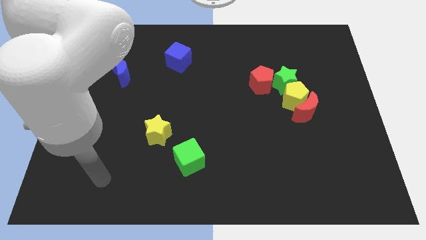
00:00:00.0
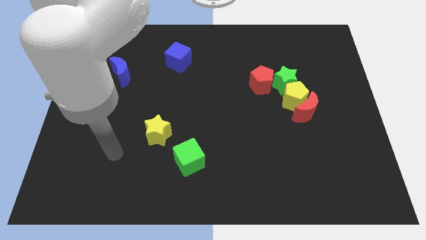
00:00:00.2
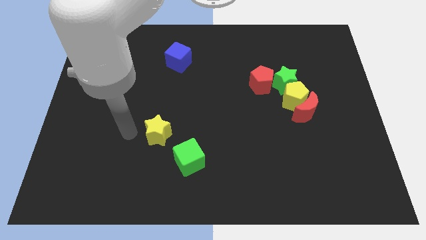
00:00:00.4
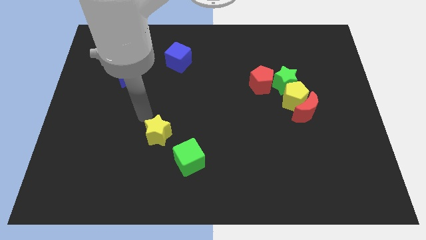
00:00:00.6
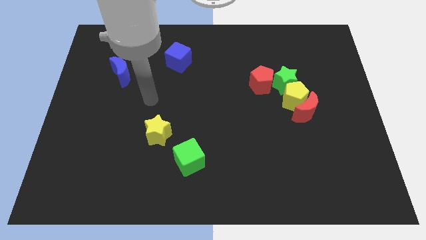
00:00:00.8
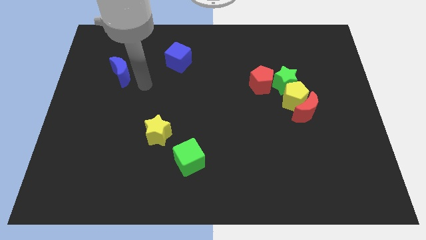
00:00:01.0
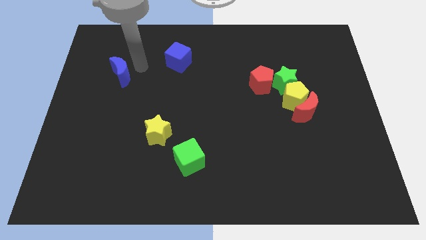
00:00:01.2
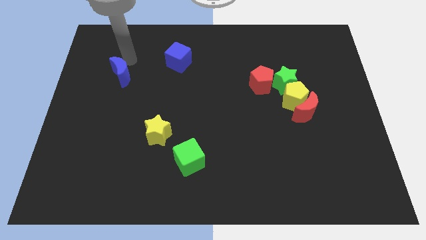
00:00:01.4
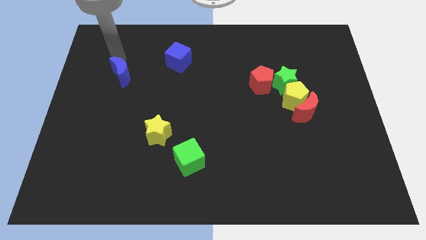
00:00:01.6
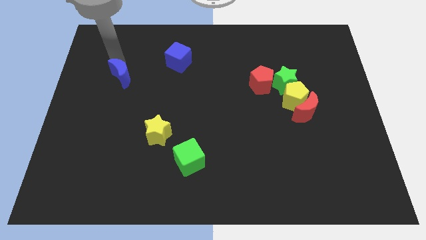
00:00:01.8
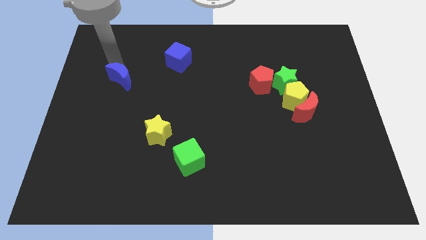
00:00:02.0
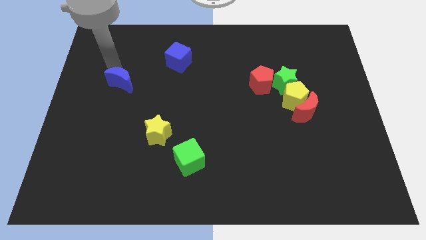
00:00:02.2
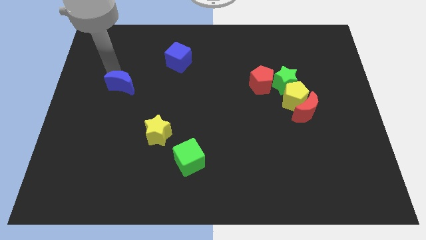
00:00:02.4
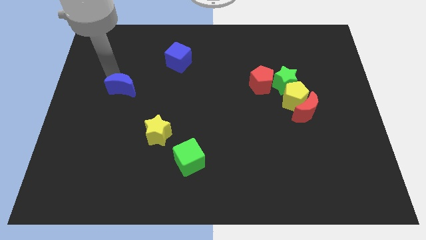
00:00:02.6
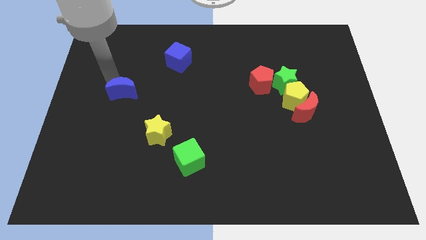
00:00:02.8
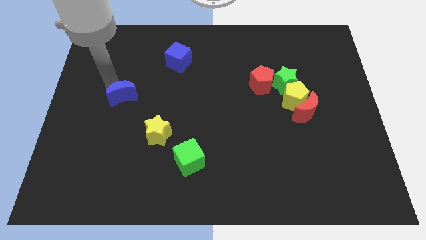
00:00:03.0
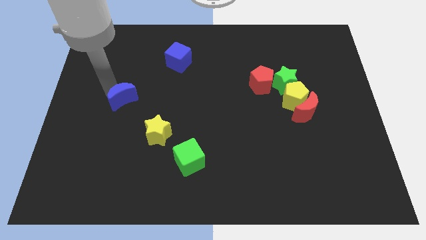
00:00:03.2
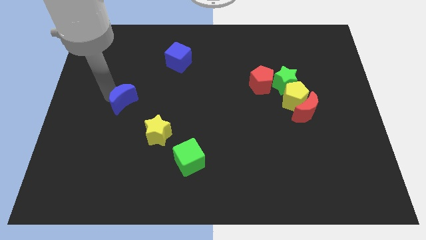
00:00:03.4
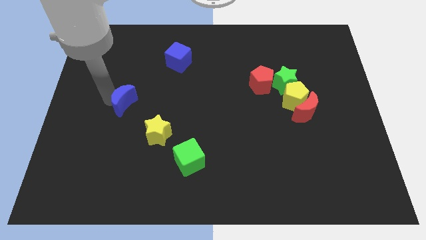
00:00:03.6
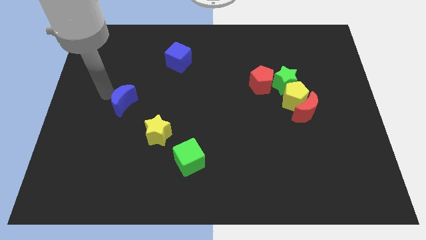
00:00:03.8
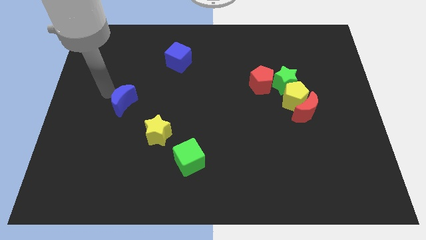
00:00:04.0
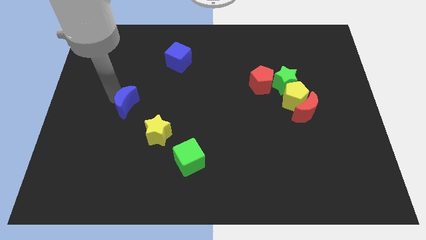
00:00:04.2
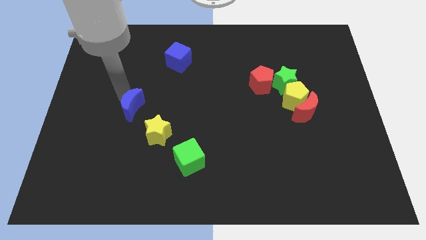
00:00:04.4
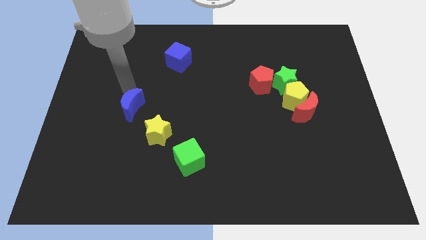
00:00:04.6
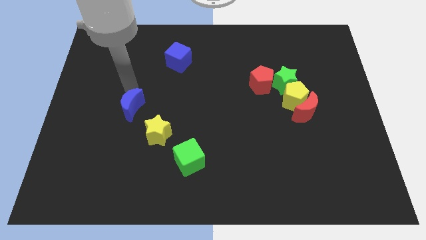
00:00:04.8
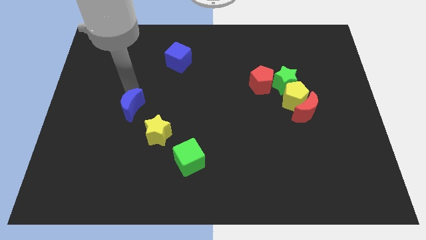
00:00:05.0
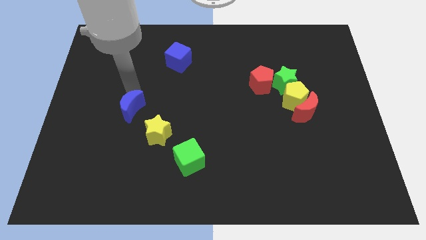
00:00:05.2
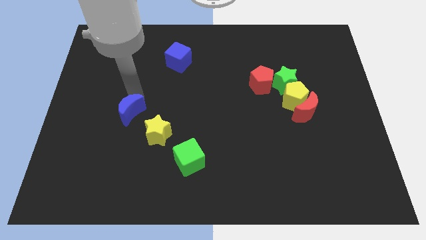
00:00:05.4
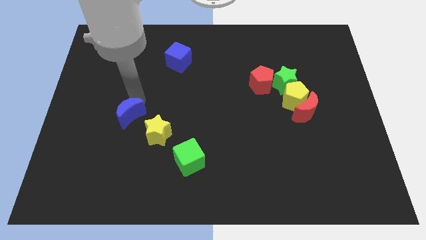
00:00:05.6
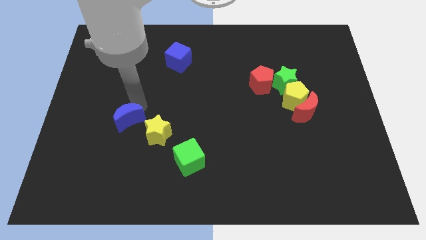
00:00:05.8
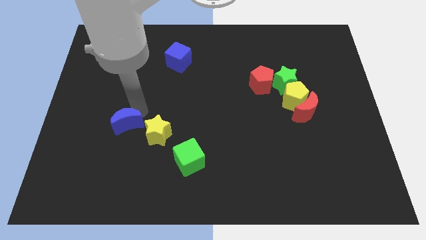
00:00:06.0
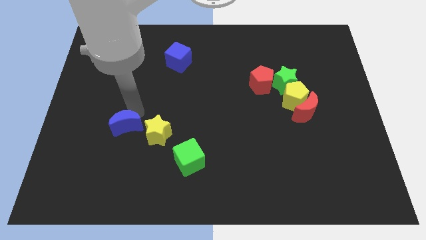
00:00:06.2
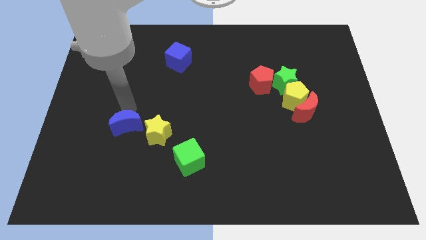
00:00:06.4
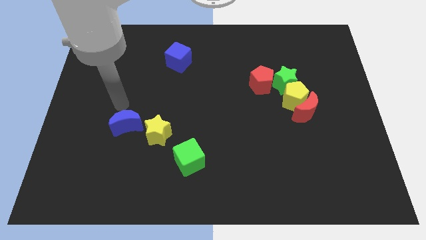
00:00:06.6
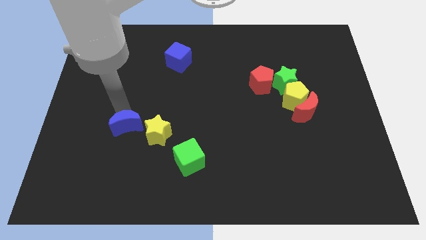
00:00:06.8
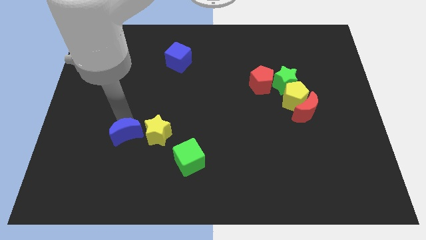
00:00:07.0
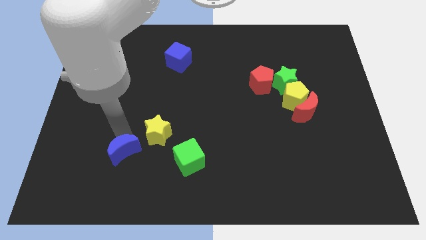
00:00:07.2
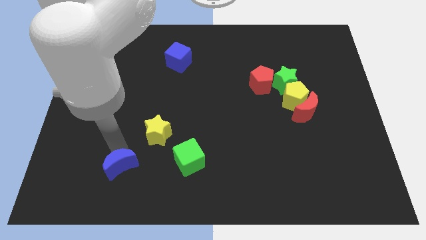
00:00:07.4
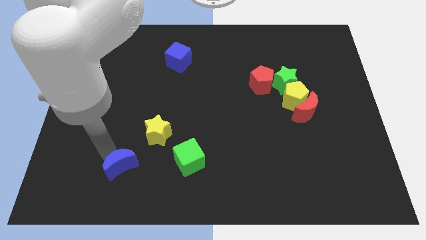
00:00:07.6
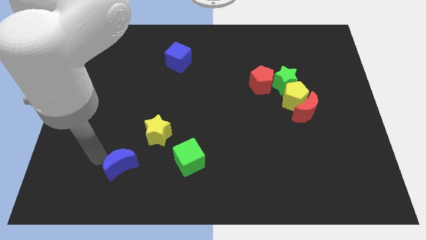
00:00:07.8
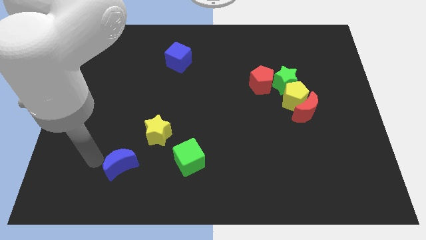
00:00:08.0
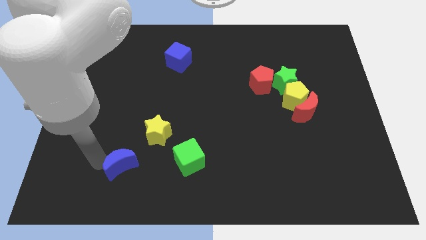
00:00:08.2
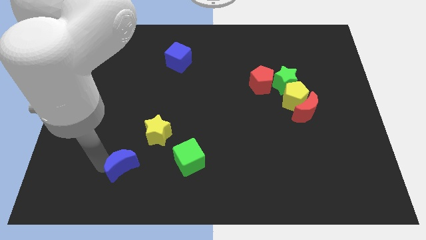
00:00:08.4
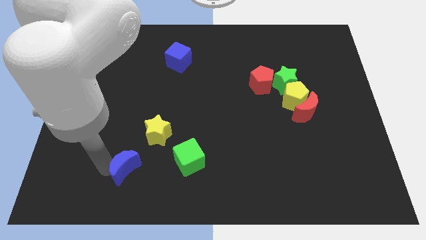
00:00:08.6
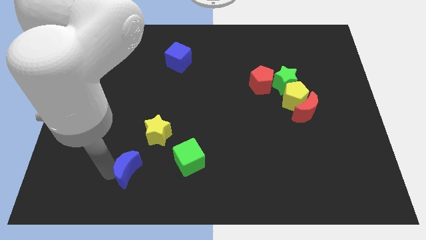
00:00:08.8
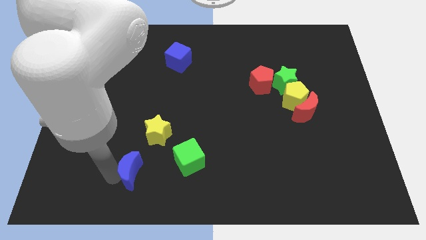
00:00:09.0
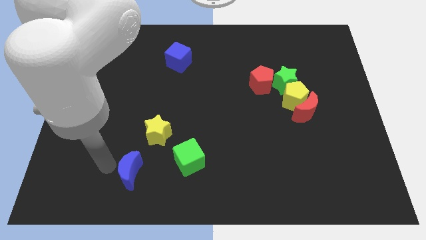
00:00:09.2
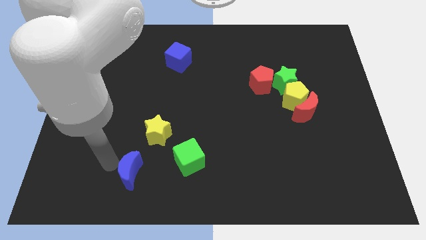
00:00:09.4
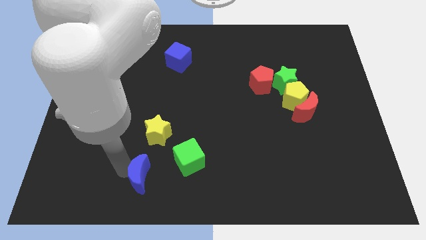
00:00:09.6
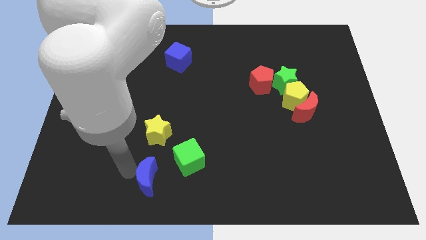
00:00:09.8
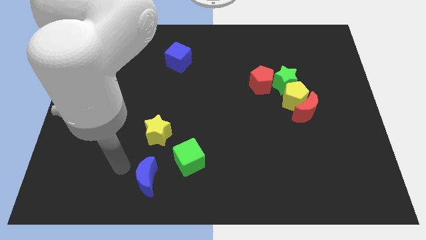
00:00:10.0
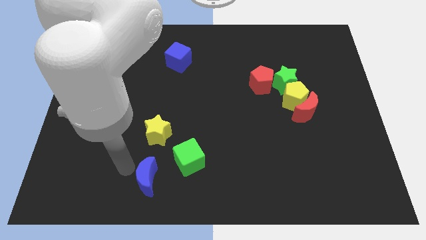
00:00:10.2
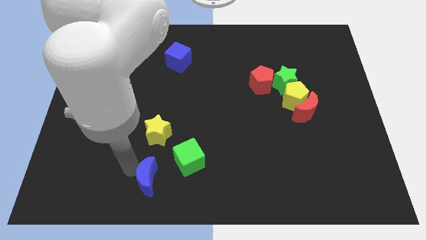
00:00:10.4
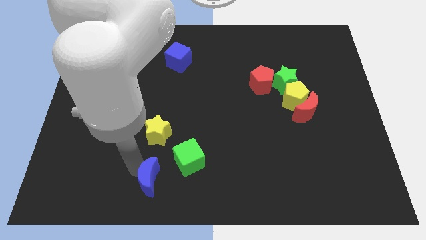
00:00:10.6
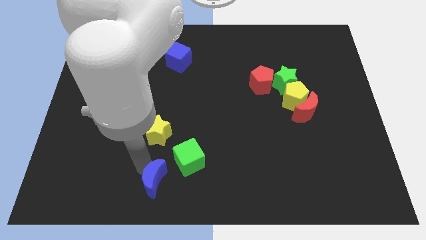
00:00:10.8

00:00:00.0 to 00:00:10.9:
put the blue moon to the bottom

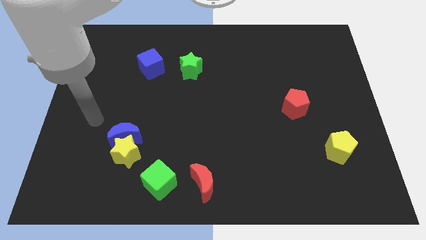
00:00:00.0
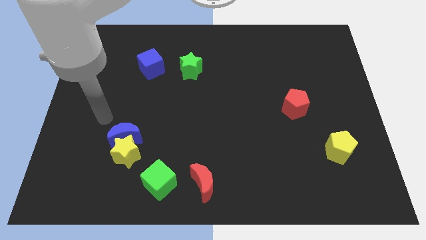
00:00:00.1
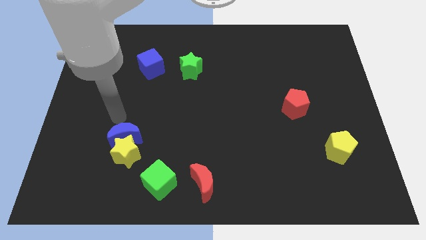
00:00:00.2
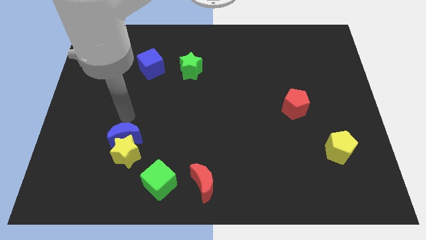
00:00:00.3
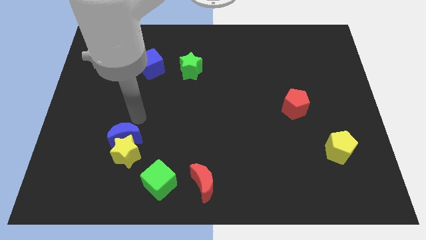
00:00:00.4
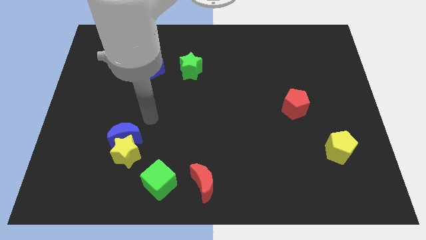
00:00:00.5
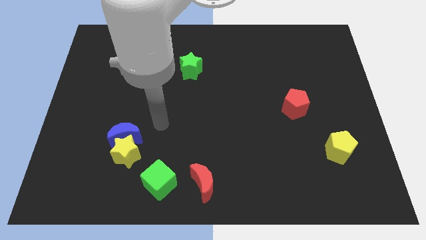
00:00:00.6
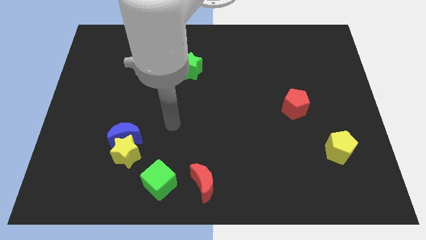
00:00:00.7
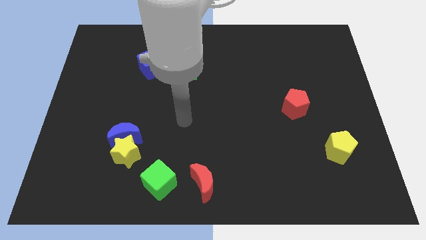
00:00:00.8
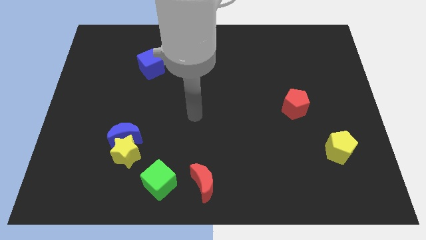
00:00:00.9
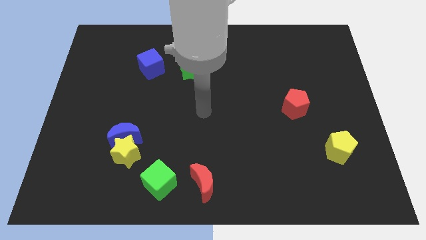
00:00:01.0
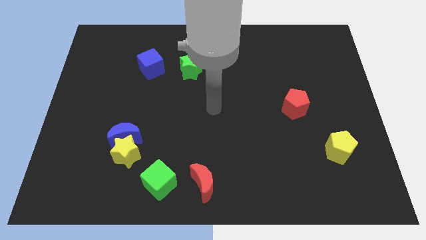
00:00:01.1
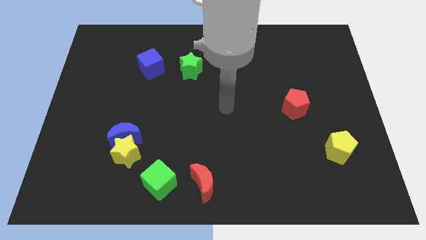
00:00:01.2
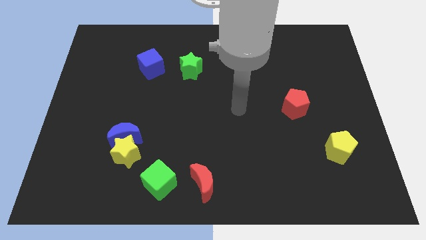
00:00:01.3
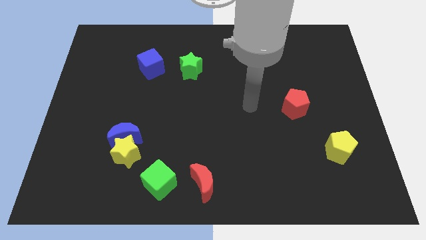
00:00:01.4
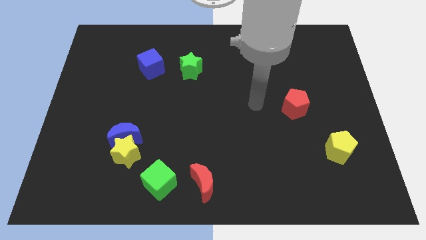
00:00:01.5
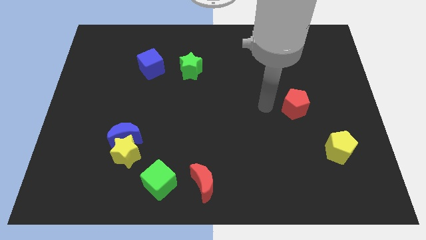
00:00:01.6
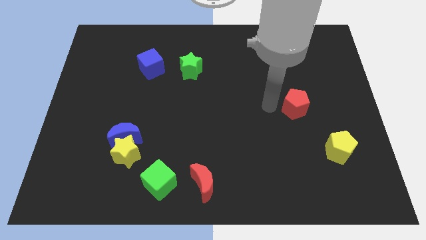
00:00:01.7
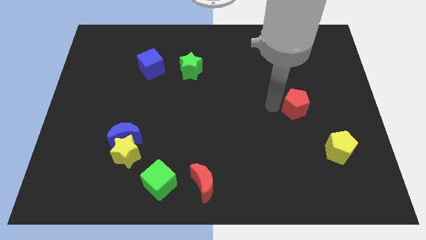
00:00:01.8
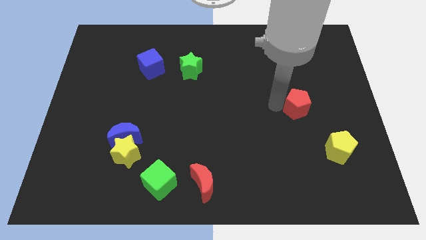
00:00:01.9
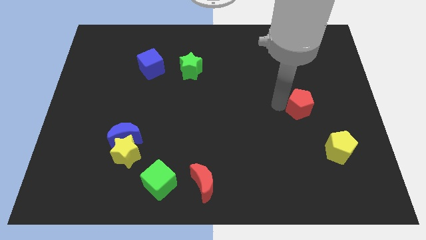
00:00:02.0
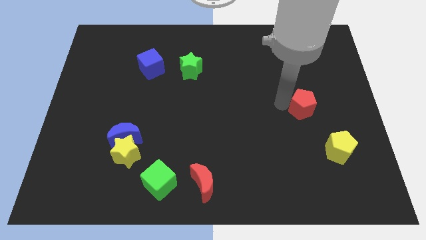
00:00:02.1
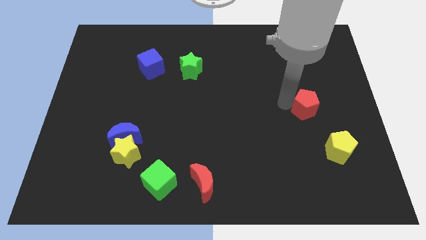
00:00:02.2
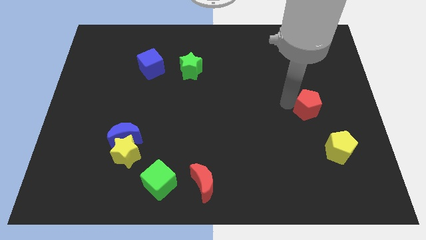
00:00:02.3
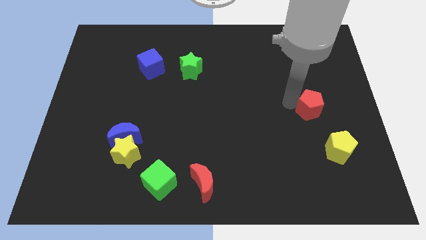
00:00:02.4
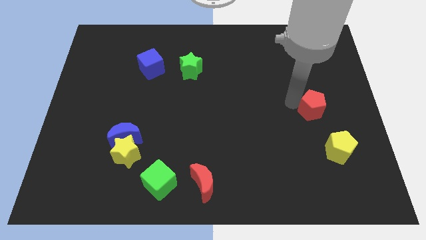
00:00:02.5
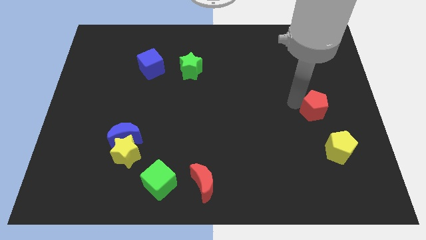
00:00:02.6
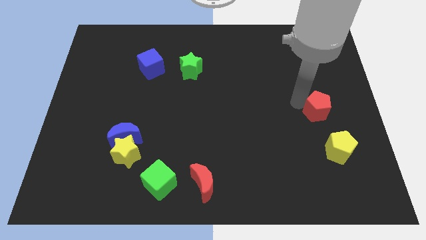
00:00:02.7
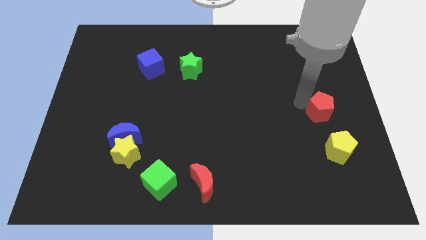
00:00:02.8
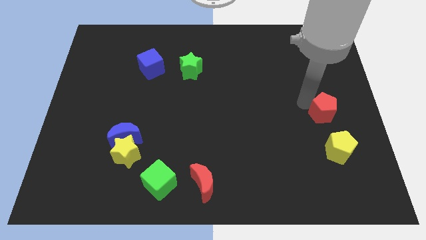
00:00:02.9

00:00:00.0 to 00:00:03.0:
slide the red pentagon to the right side of the board
